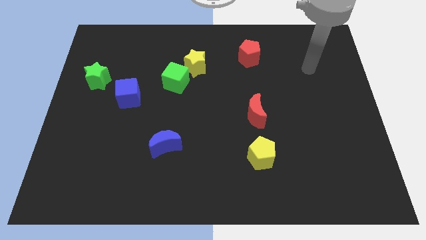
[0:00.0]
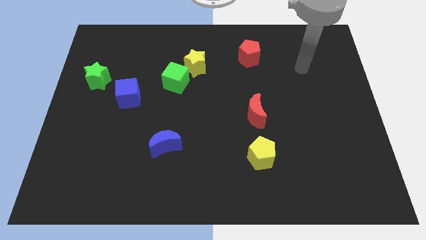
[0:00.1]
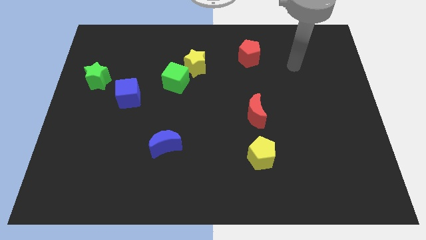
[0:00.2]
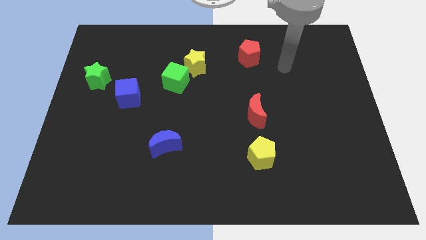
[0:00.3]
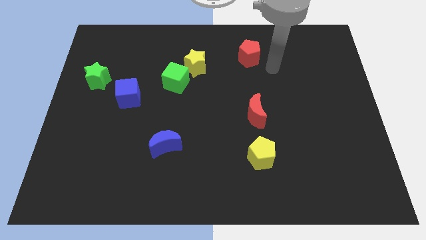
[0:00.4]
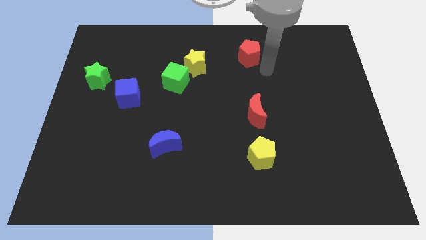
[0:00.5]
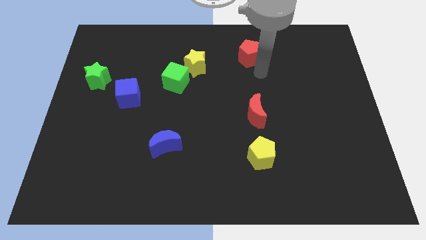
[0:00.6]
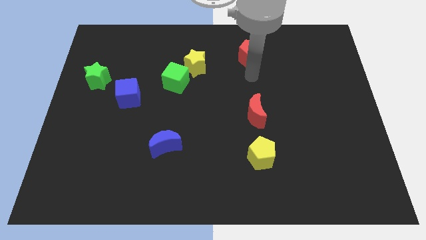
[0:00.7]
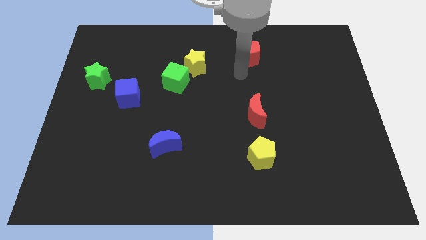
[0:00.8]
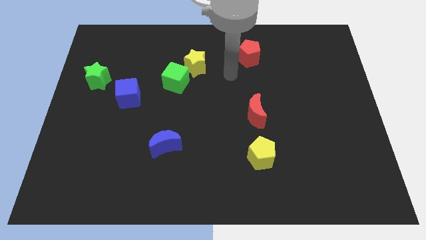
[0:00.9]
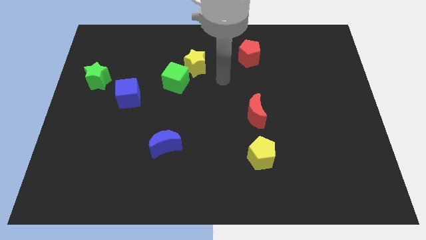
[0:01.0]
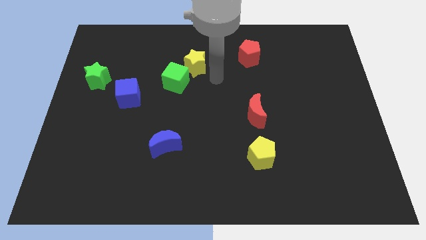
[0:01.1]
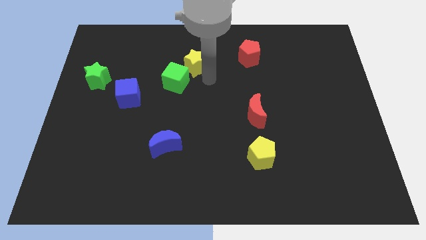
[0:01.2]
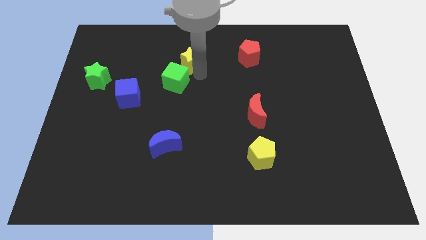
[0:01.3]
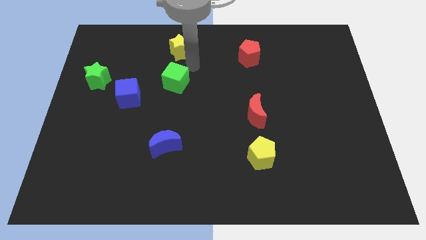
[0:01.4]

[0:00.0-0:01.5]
separate the green cube from the yellow star

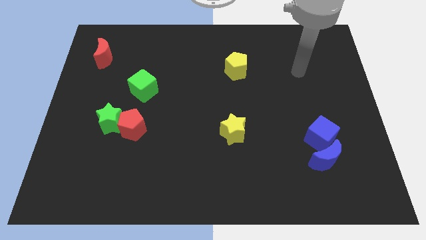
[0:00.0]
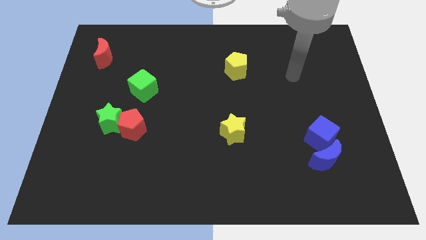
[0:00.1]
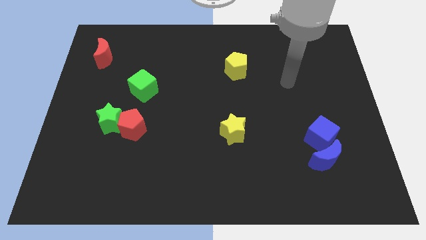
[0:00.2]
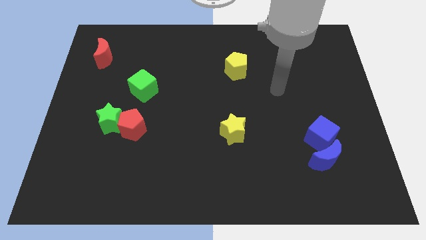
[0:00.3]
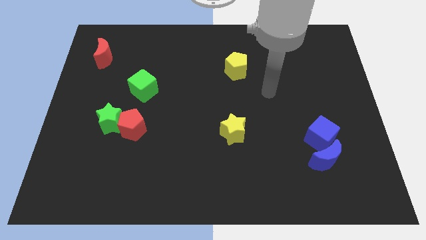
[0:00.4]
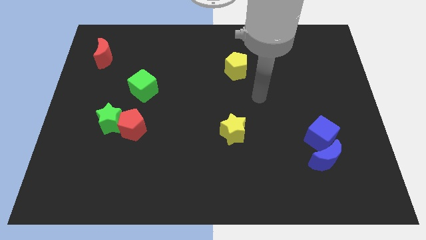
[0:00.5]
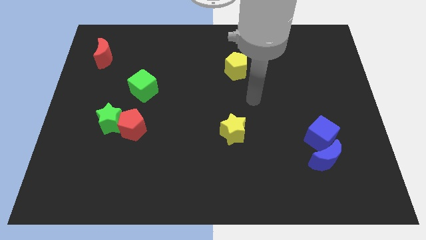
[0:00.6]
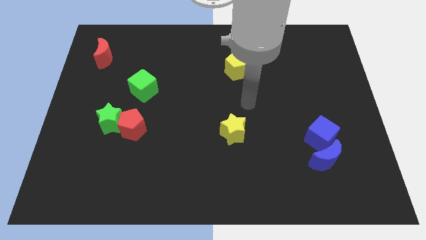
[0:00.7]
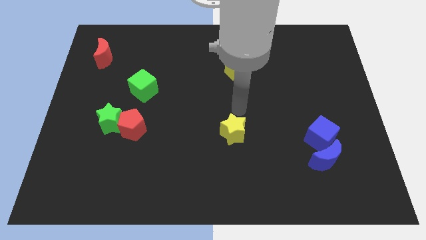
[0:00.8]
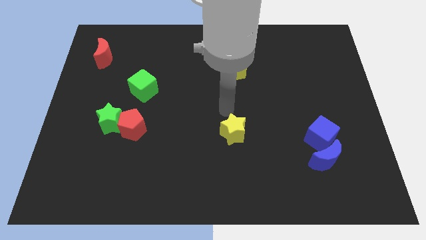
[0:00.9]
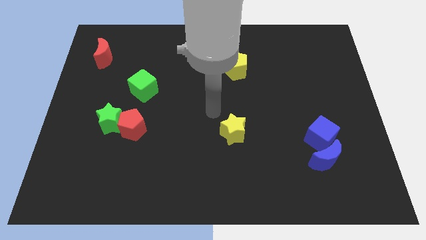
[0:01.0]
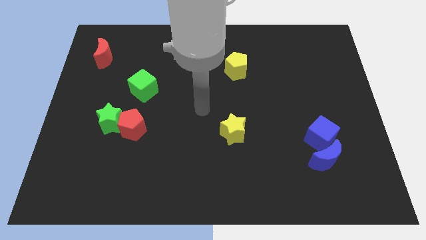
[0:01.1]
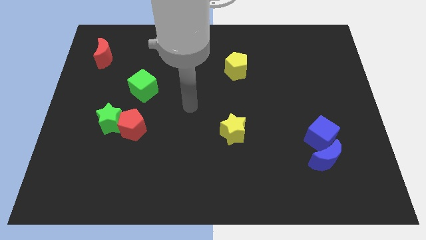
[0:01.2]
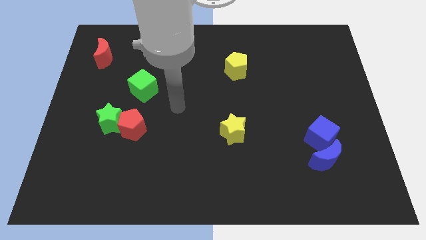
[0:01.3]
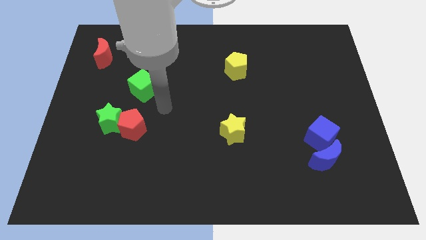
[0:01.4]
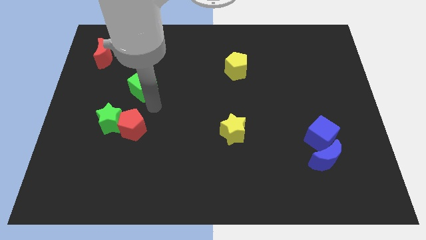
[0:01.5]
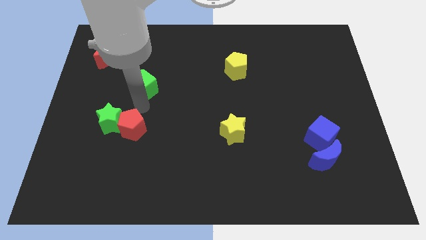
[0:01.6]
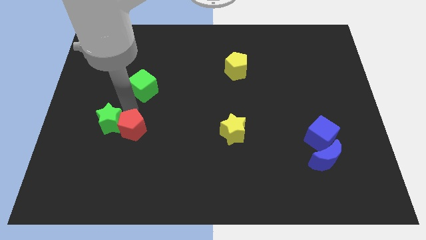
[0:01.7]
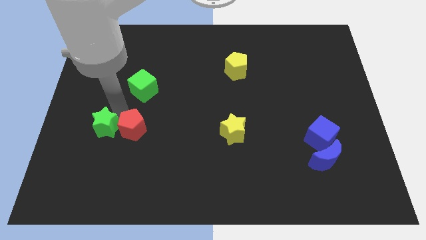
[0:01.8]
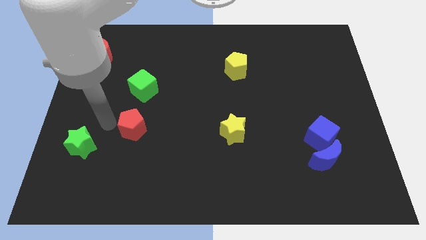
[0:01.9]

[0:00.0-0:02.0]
pull the red pentagon apart from the green star

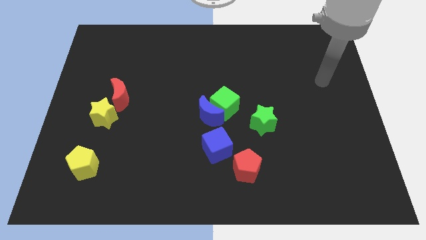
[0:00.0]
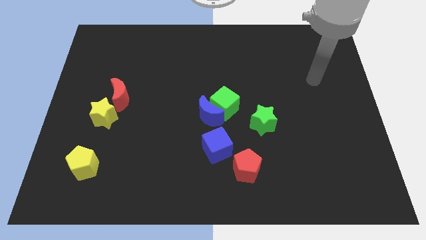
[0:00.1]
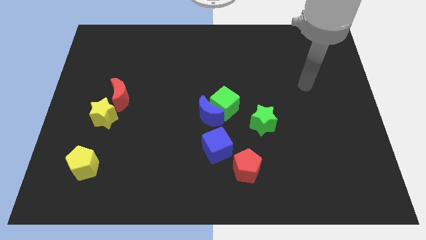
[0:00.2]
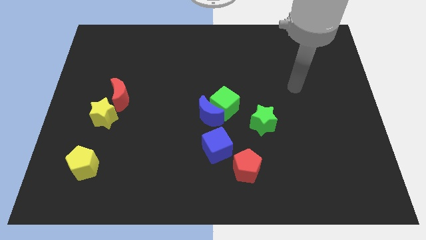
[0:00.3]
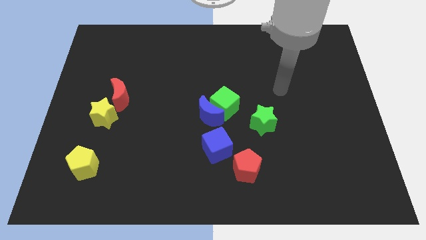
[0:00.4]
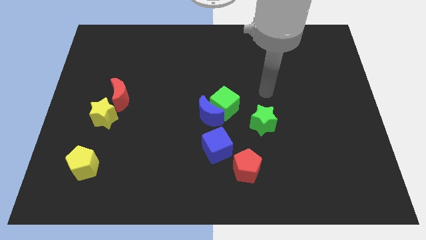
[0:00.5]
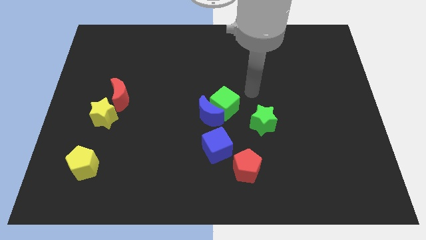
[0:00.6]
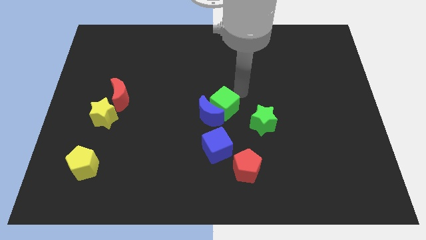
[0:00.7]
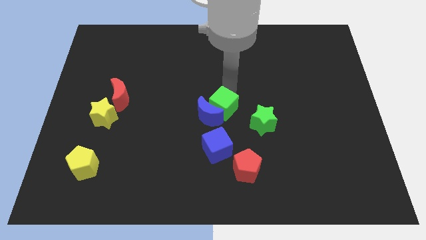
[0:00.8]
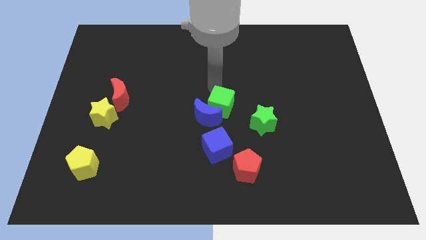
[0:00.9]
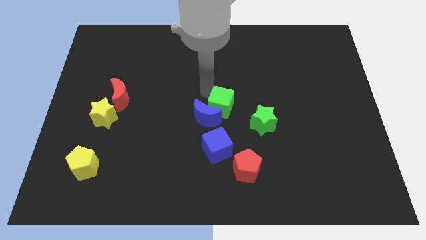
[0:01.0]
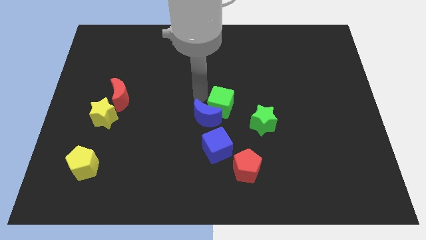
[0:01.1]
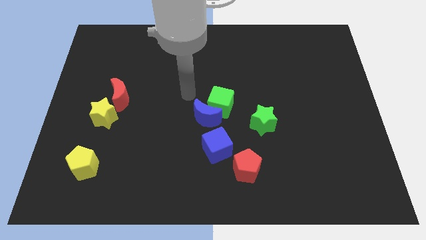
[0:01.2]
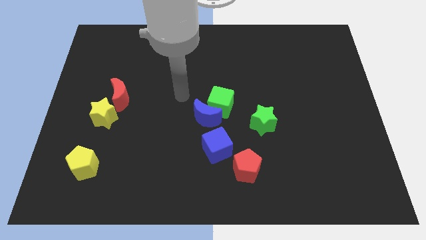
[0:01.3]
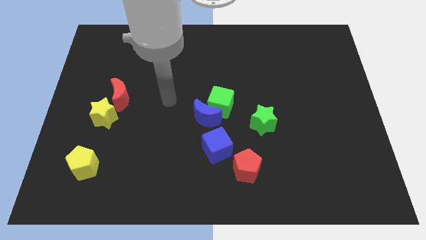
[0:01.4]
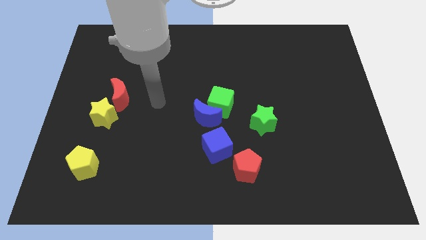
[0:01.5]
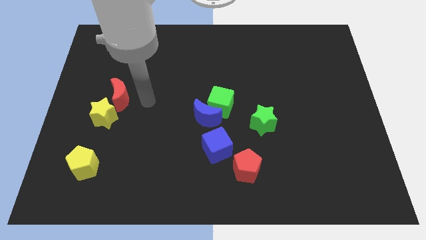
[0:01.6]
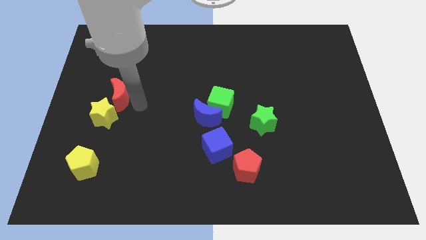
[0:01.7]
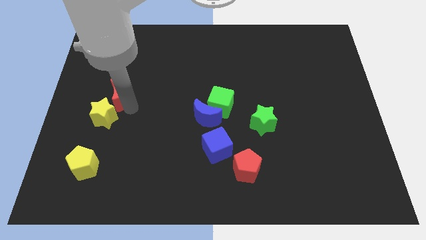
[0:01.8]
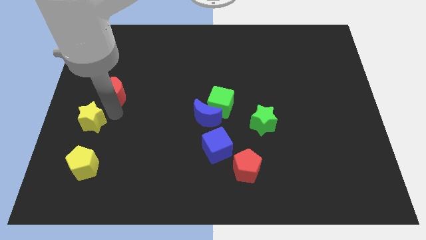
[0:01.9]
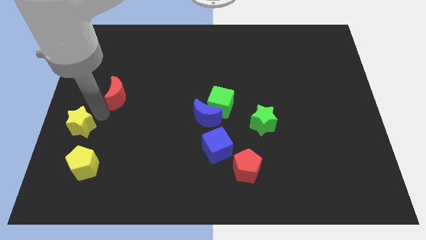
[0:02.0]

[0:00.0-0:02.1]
move the red moon away from the yellow star

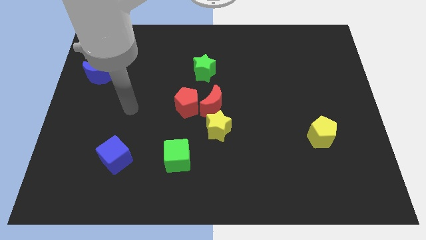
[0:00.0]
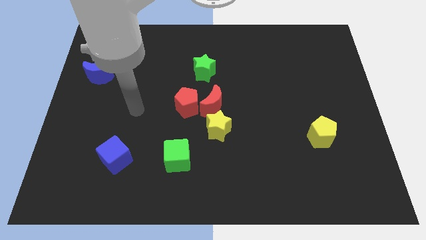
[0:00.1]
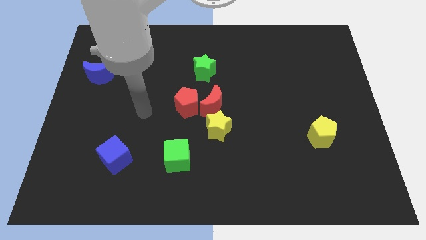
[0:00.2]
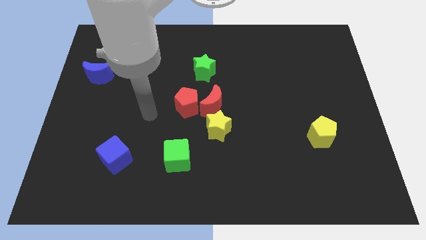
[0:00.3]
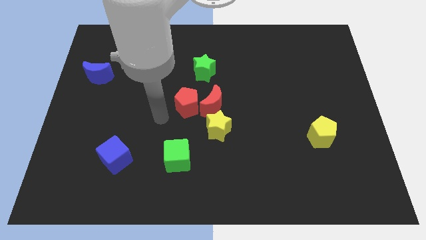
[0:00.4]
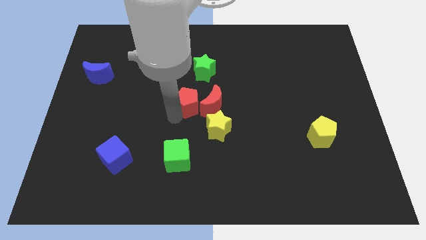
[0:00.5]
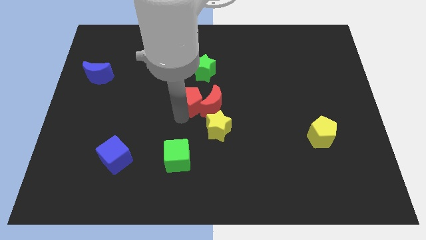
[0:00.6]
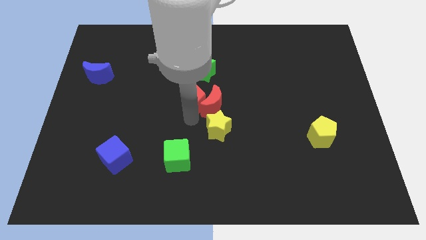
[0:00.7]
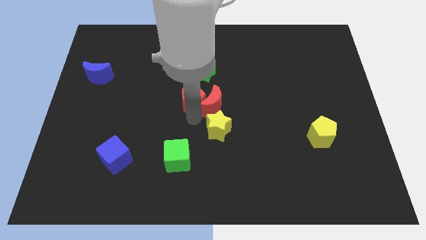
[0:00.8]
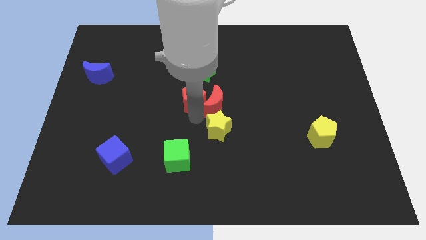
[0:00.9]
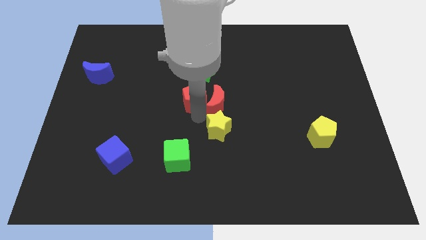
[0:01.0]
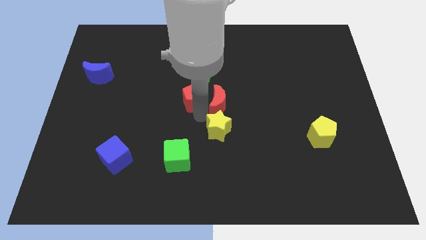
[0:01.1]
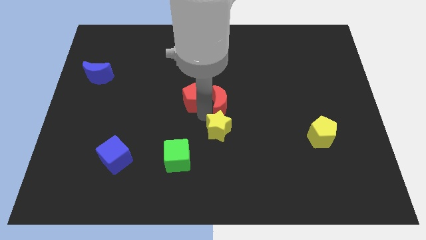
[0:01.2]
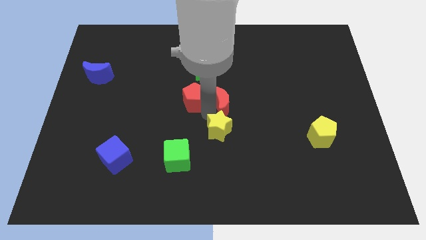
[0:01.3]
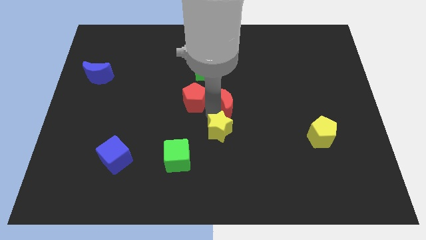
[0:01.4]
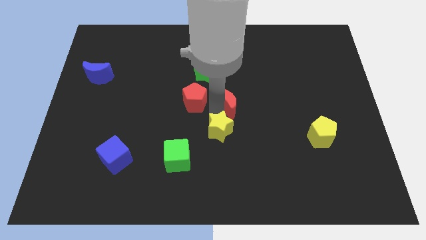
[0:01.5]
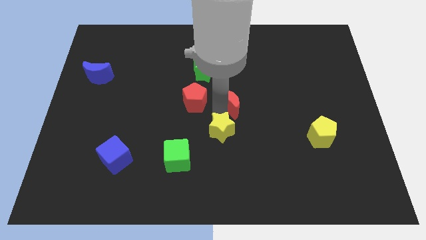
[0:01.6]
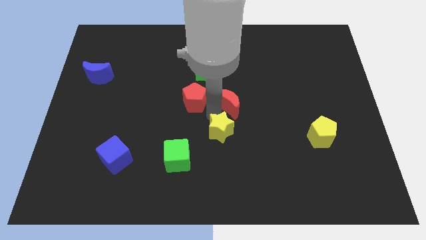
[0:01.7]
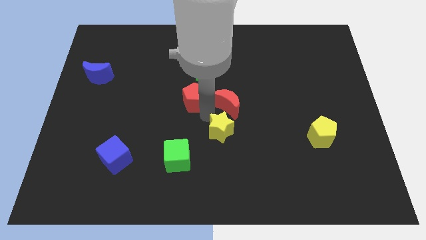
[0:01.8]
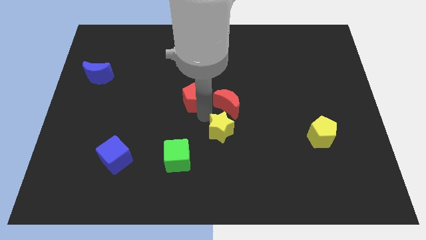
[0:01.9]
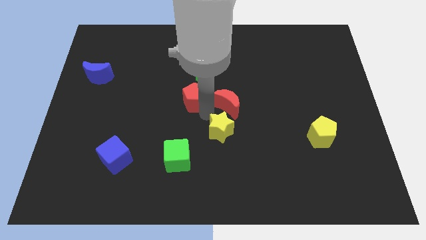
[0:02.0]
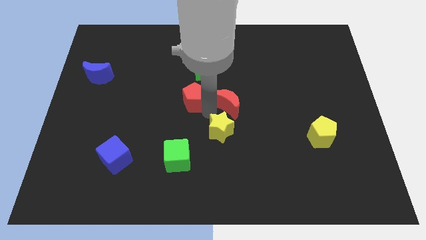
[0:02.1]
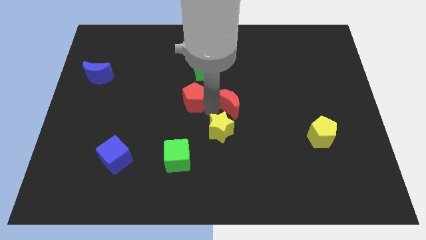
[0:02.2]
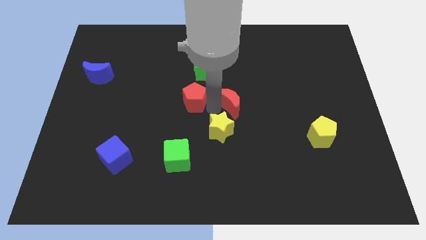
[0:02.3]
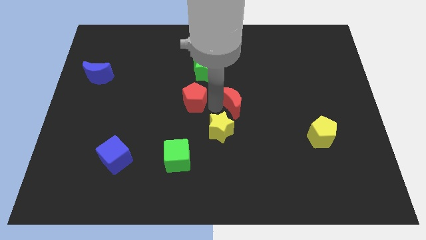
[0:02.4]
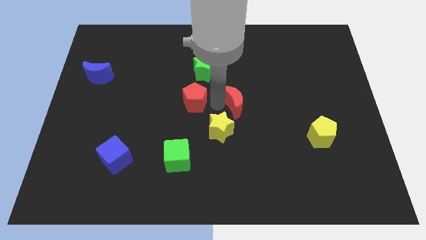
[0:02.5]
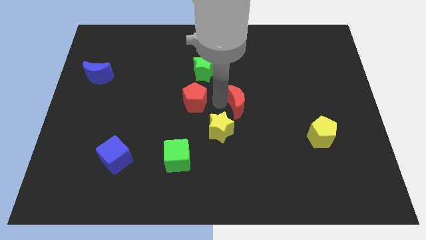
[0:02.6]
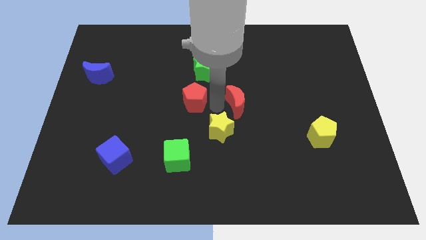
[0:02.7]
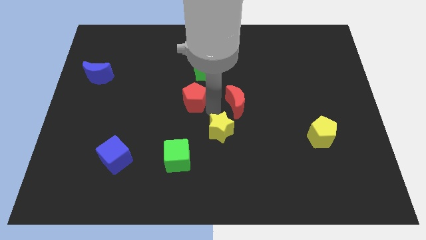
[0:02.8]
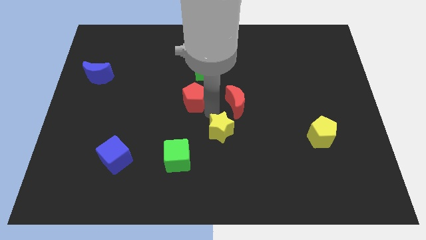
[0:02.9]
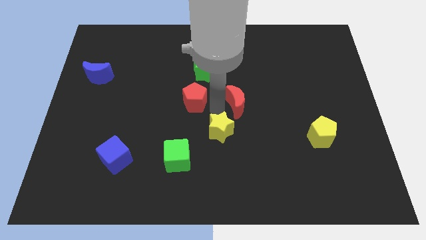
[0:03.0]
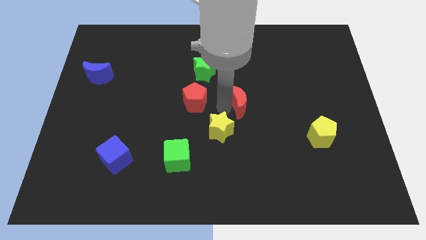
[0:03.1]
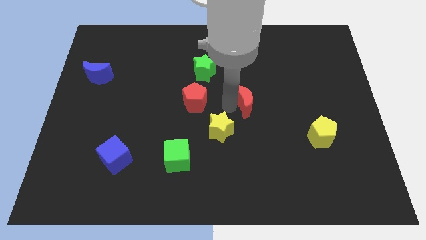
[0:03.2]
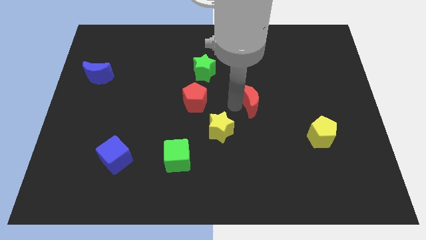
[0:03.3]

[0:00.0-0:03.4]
move the red moon away from the red pentagon and yellow star

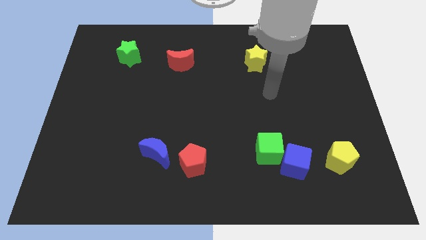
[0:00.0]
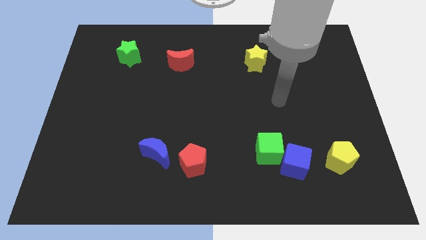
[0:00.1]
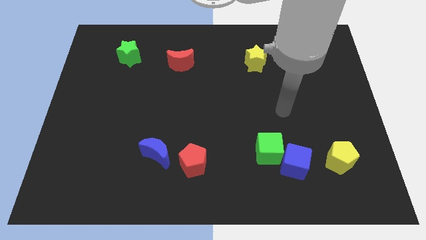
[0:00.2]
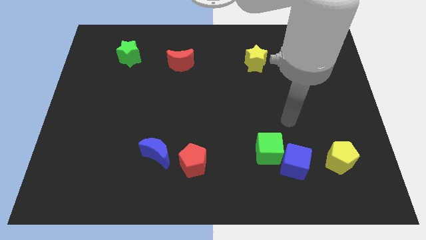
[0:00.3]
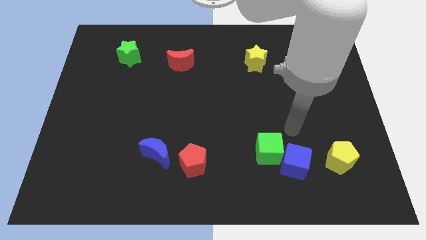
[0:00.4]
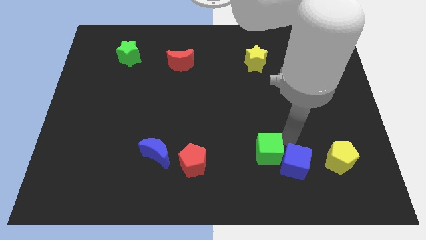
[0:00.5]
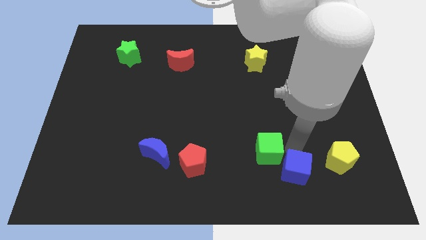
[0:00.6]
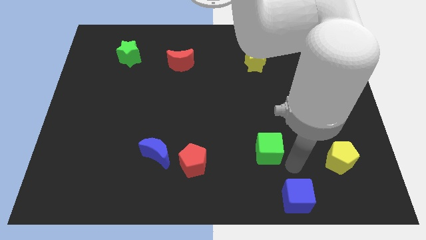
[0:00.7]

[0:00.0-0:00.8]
pull the green cube apart from the blue cube
